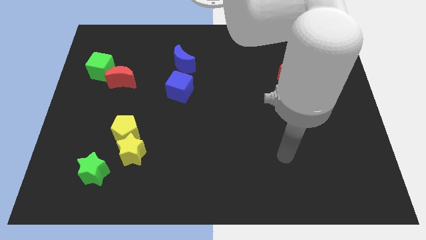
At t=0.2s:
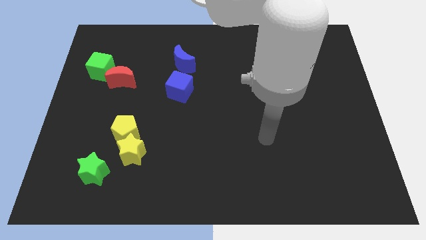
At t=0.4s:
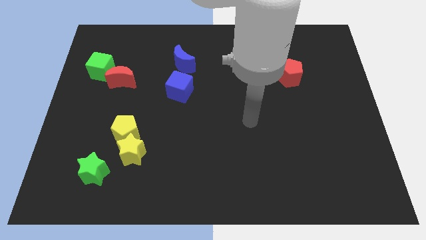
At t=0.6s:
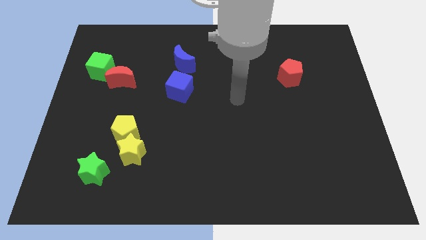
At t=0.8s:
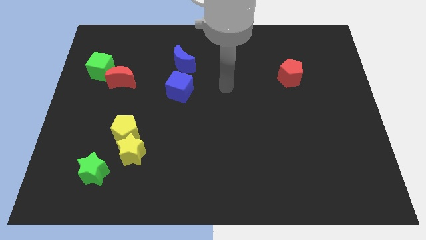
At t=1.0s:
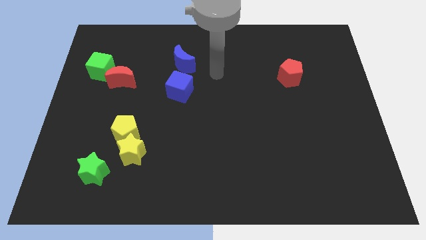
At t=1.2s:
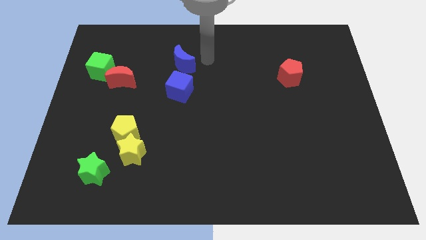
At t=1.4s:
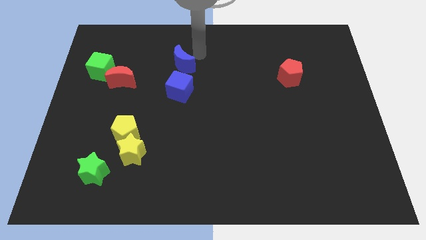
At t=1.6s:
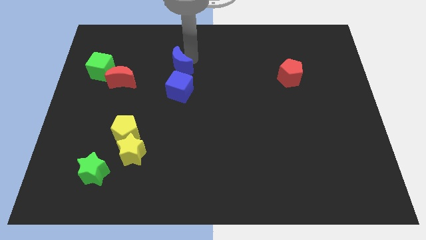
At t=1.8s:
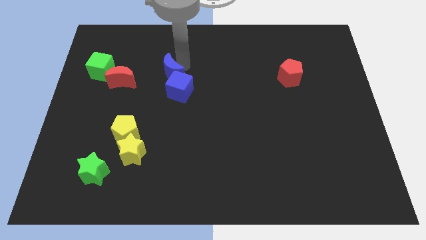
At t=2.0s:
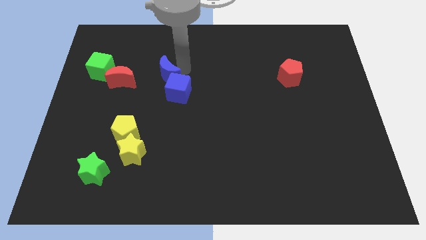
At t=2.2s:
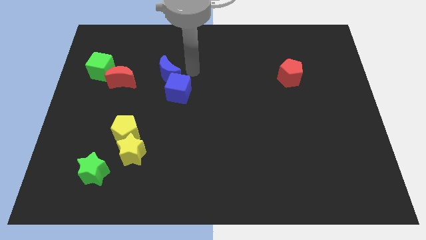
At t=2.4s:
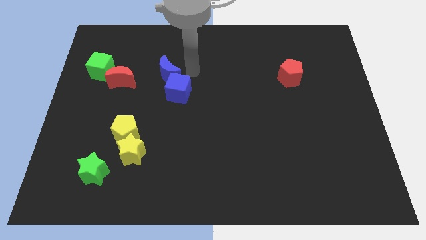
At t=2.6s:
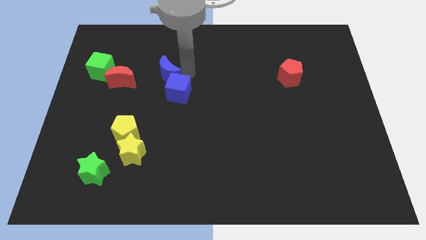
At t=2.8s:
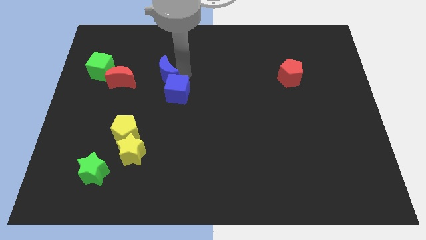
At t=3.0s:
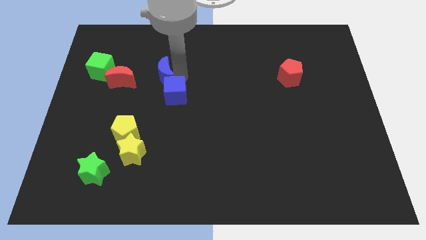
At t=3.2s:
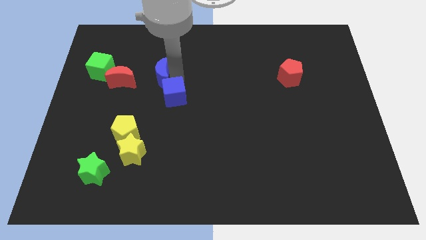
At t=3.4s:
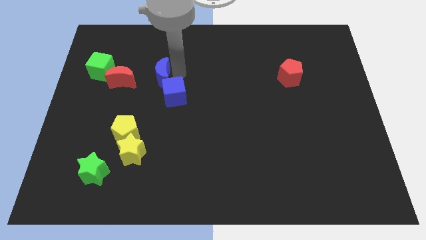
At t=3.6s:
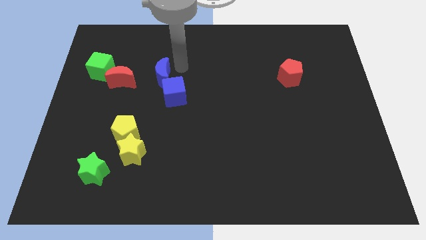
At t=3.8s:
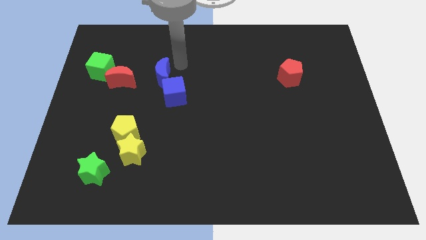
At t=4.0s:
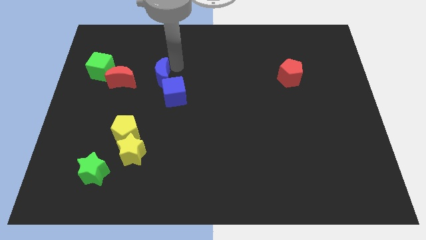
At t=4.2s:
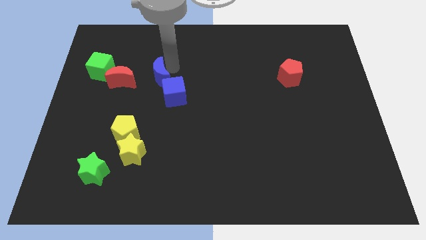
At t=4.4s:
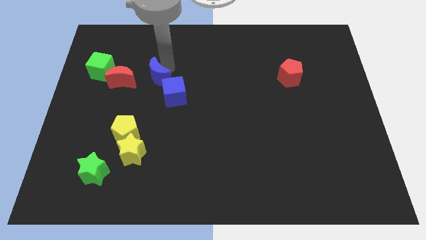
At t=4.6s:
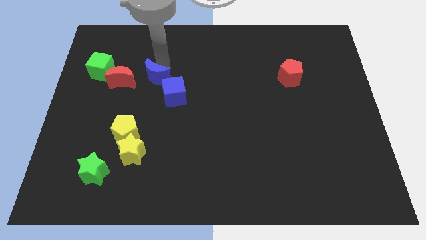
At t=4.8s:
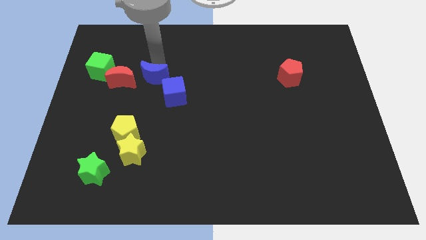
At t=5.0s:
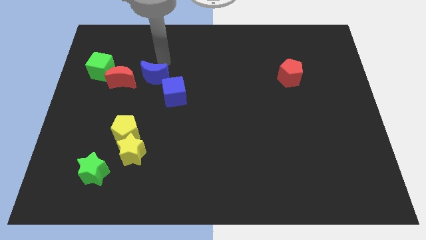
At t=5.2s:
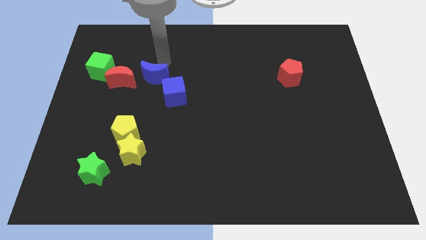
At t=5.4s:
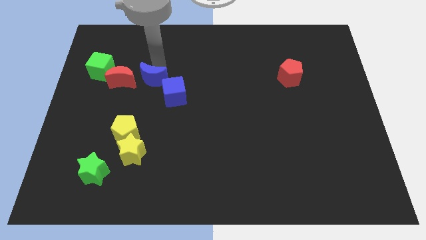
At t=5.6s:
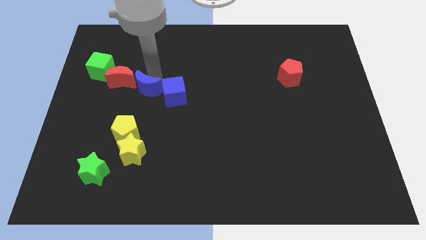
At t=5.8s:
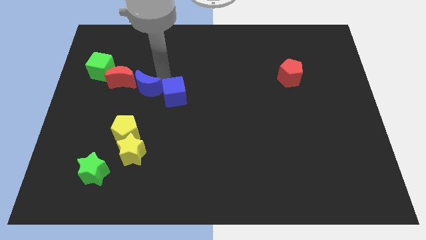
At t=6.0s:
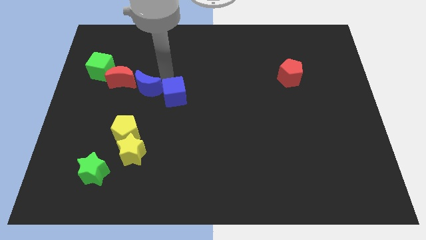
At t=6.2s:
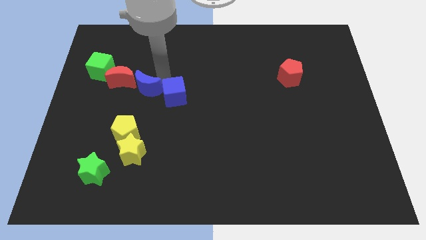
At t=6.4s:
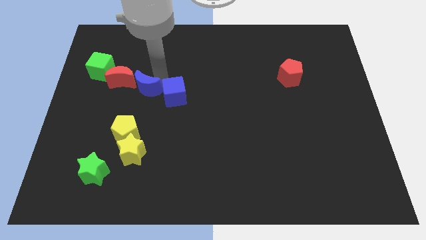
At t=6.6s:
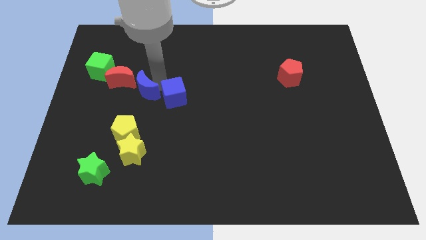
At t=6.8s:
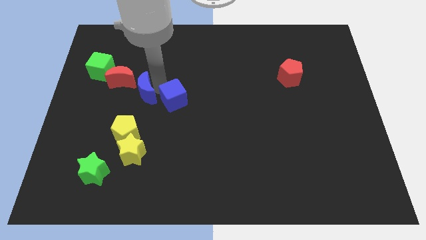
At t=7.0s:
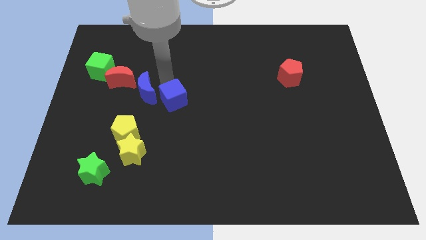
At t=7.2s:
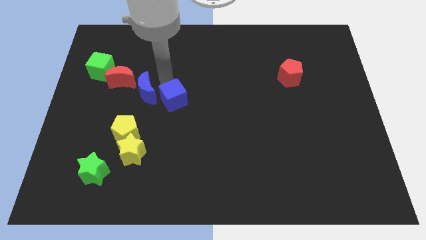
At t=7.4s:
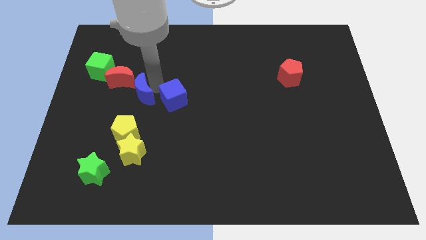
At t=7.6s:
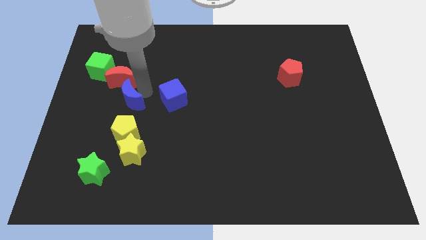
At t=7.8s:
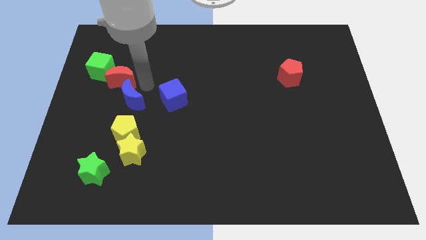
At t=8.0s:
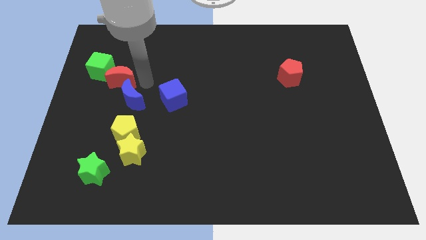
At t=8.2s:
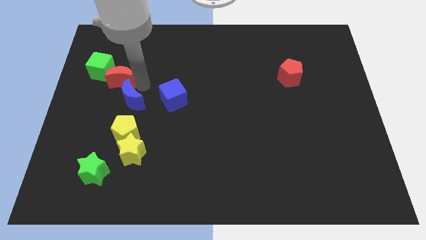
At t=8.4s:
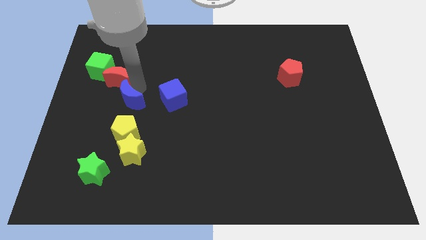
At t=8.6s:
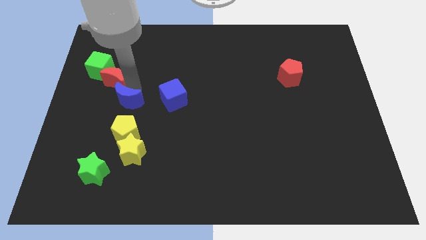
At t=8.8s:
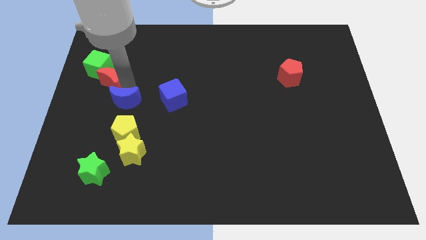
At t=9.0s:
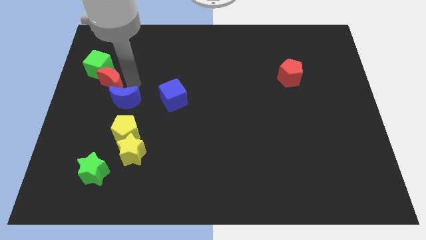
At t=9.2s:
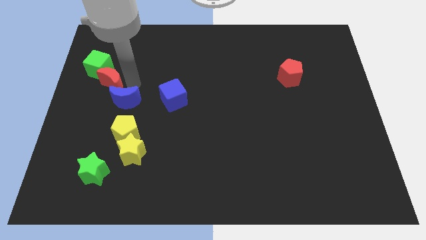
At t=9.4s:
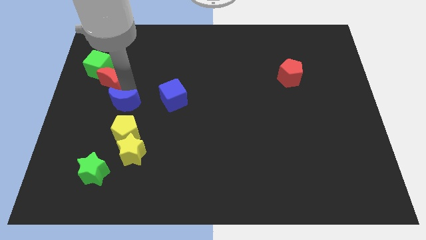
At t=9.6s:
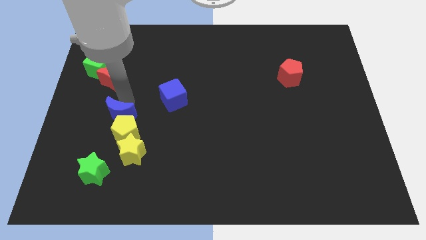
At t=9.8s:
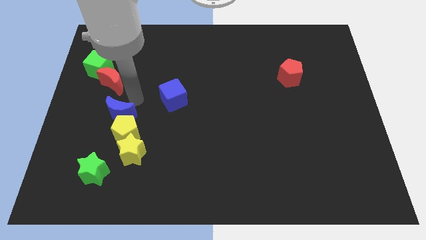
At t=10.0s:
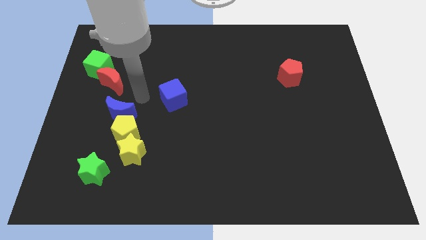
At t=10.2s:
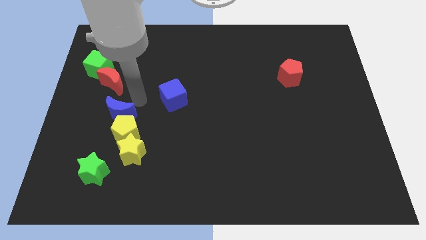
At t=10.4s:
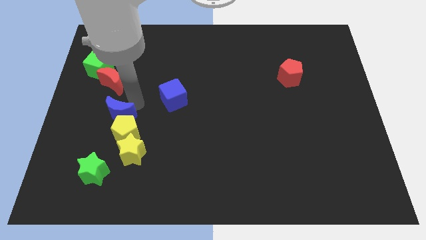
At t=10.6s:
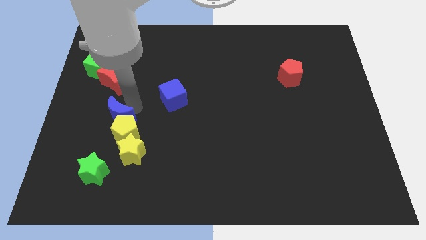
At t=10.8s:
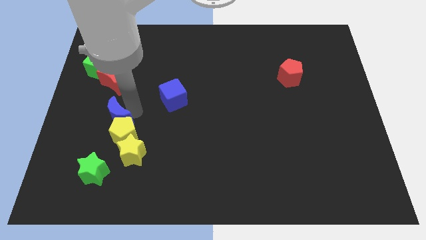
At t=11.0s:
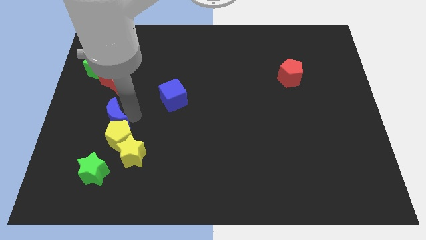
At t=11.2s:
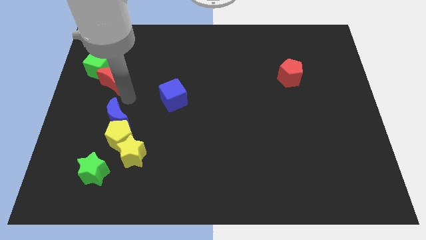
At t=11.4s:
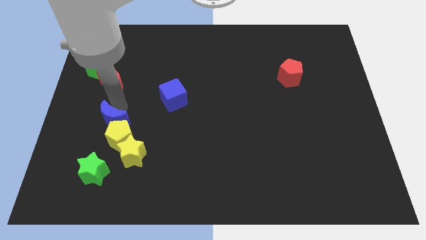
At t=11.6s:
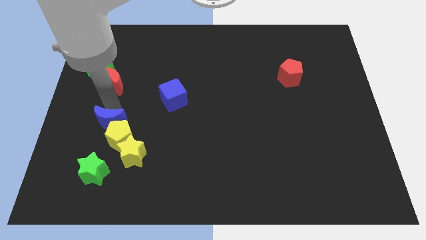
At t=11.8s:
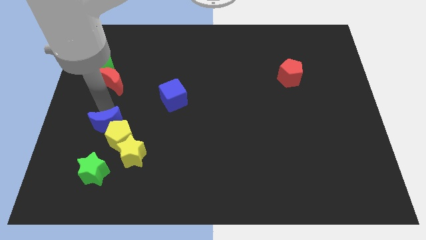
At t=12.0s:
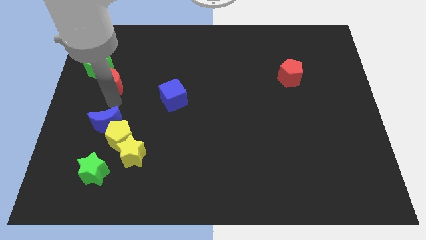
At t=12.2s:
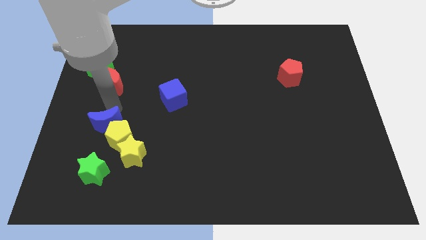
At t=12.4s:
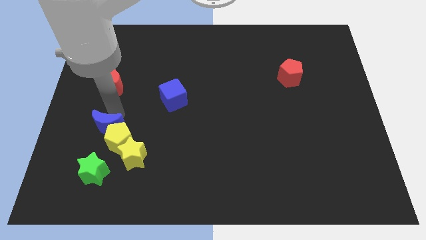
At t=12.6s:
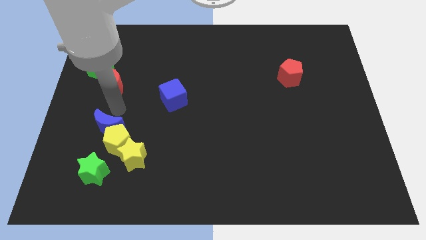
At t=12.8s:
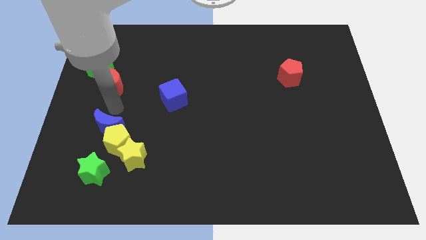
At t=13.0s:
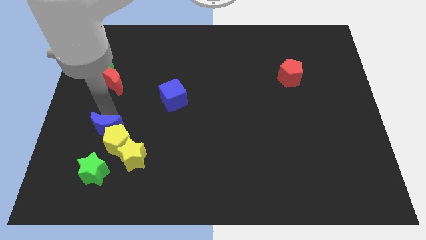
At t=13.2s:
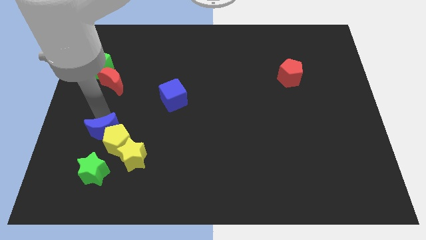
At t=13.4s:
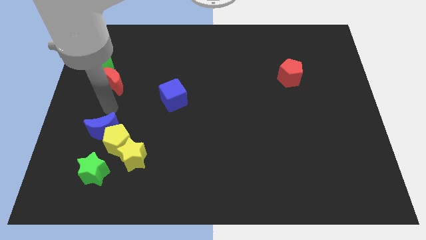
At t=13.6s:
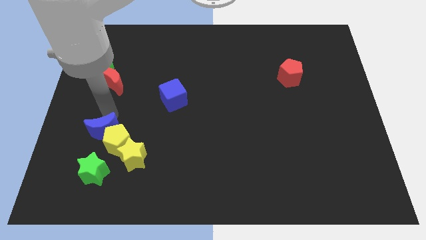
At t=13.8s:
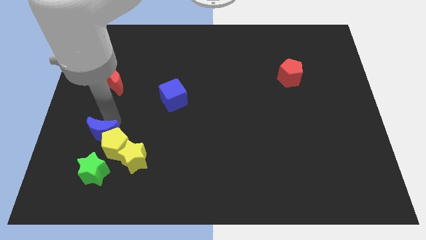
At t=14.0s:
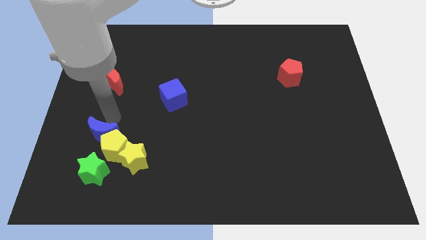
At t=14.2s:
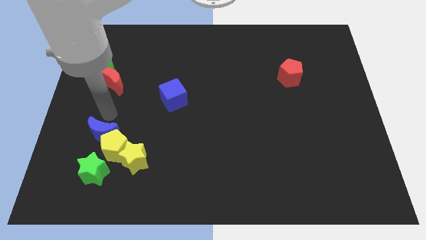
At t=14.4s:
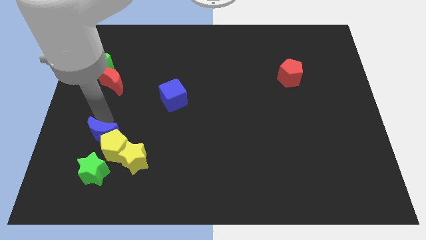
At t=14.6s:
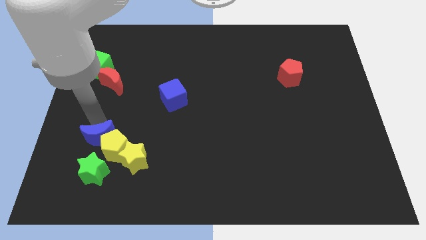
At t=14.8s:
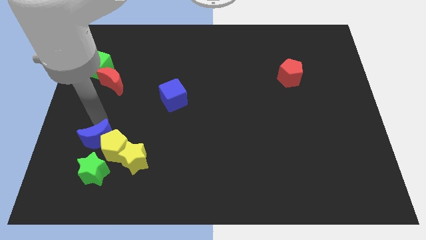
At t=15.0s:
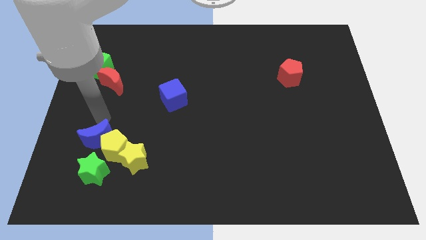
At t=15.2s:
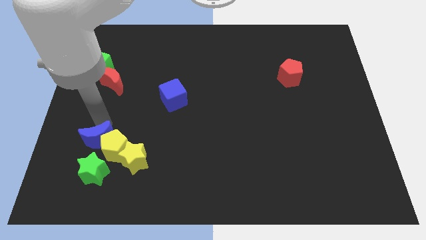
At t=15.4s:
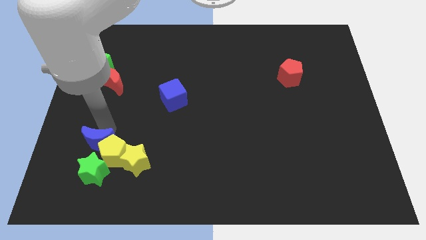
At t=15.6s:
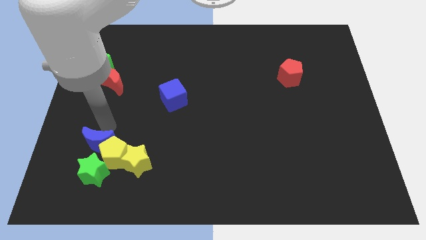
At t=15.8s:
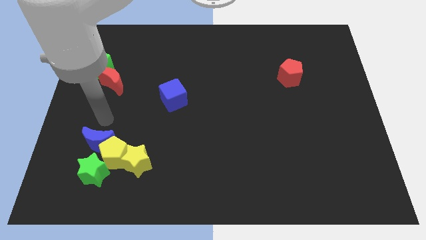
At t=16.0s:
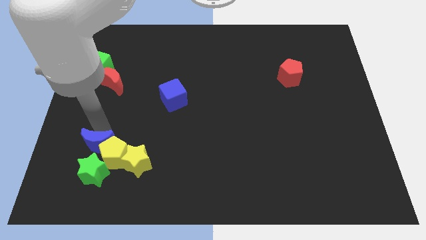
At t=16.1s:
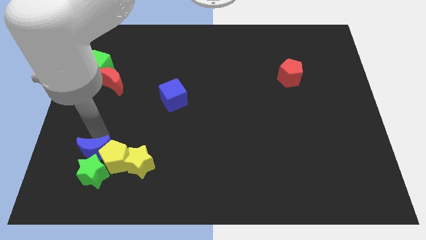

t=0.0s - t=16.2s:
put the blue moon towards the green star
